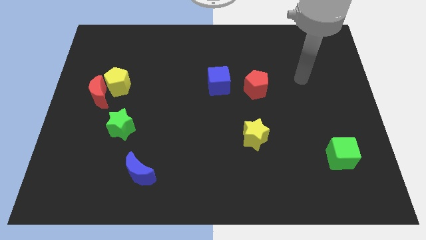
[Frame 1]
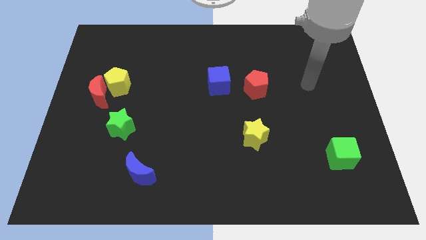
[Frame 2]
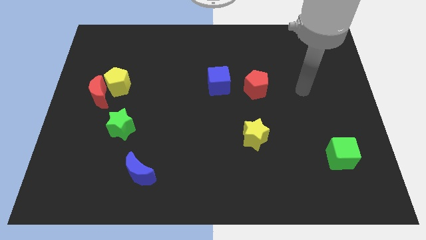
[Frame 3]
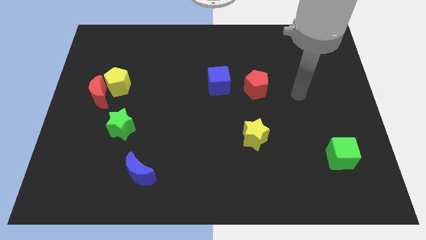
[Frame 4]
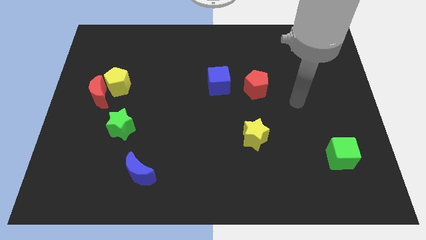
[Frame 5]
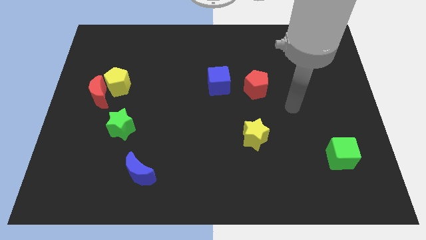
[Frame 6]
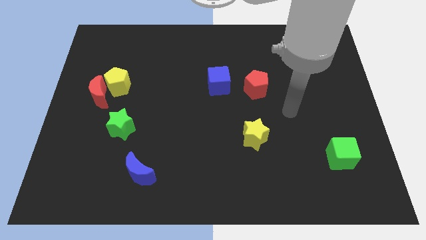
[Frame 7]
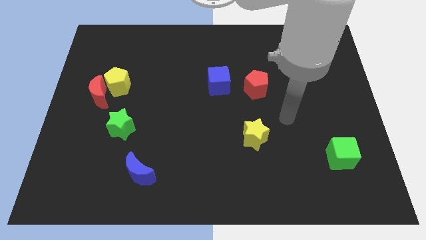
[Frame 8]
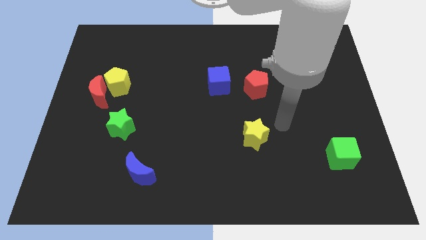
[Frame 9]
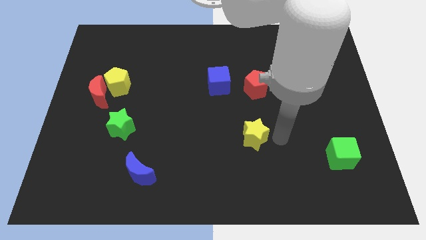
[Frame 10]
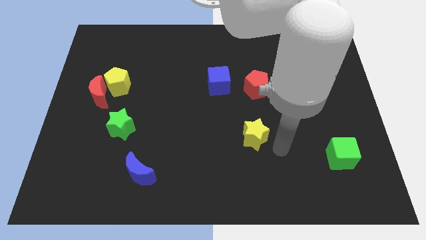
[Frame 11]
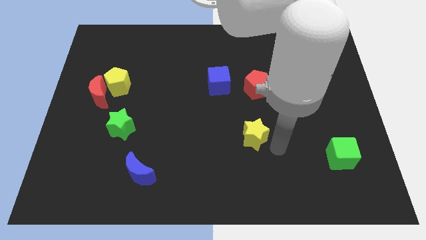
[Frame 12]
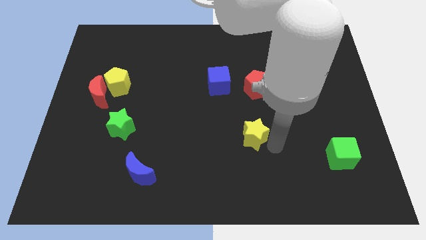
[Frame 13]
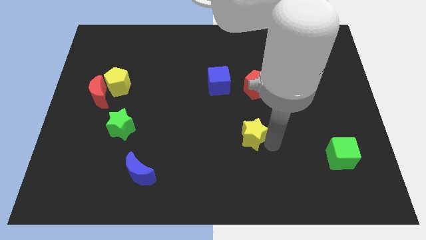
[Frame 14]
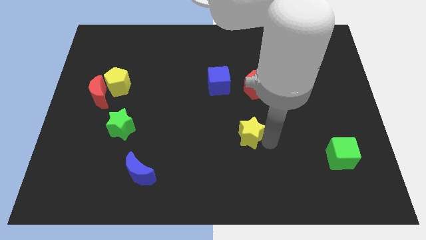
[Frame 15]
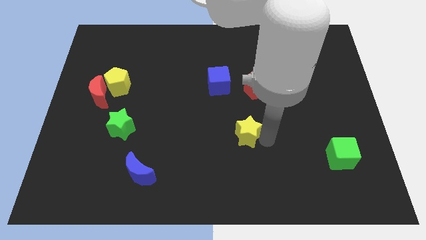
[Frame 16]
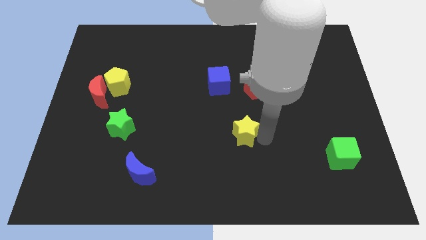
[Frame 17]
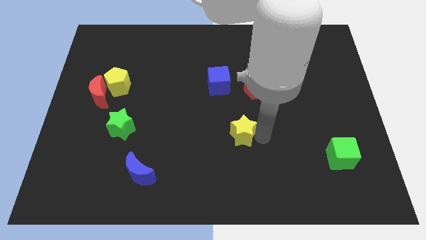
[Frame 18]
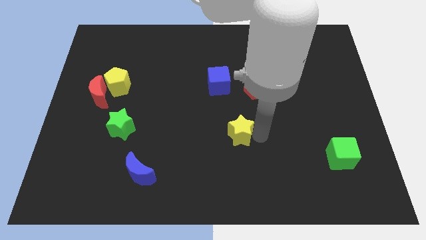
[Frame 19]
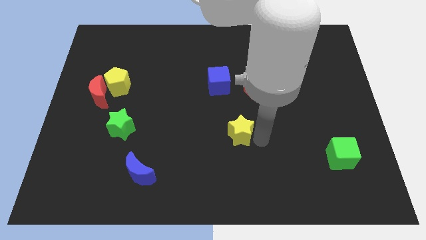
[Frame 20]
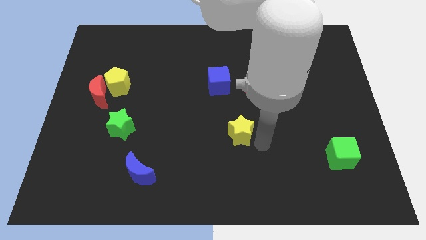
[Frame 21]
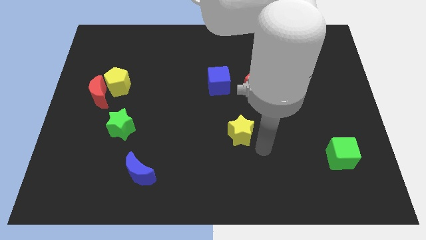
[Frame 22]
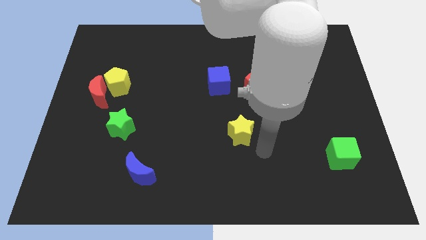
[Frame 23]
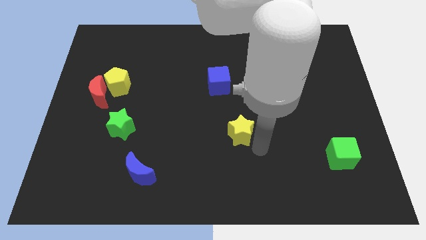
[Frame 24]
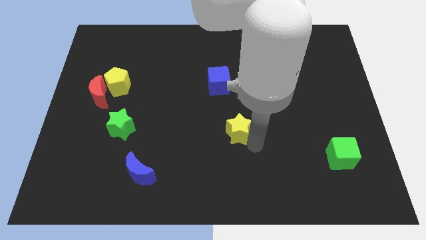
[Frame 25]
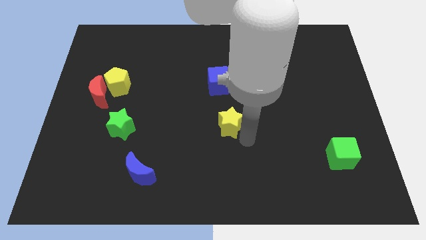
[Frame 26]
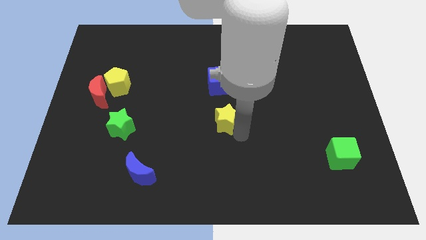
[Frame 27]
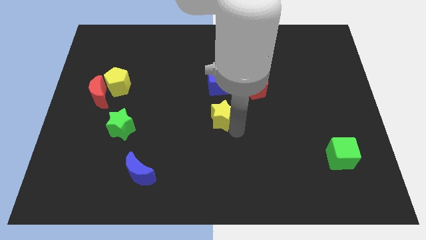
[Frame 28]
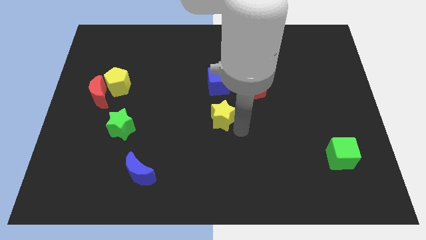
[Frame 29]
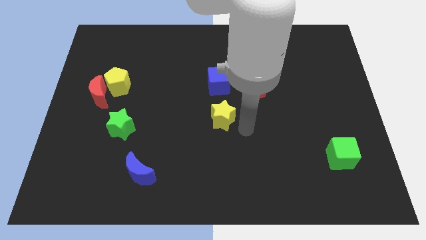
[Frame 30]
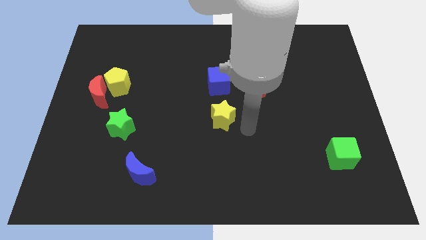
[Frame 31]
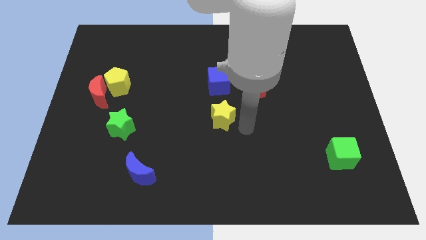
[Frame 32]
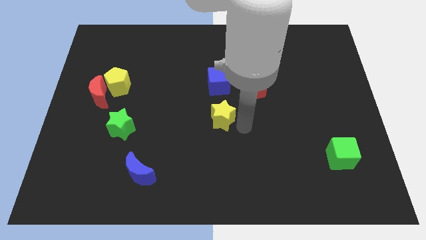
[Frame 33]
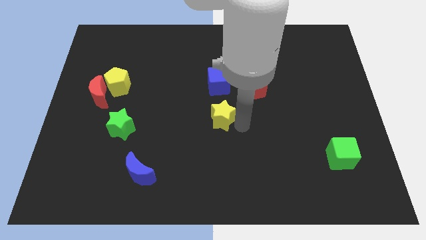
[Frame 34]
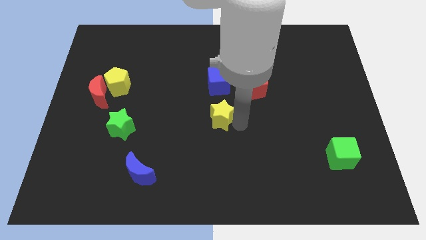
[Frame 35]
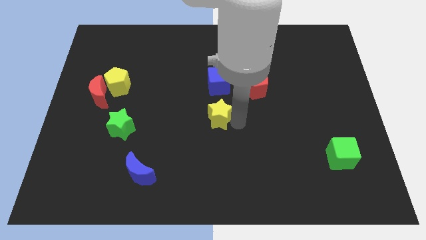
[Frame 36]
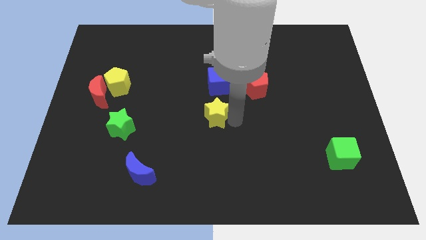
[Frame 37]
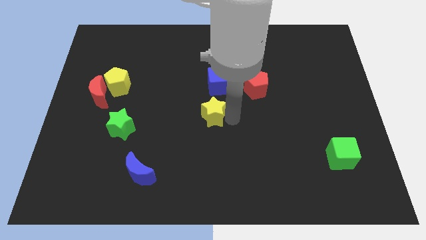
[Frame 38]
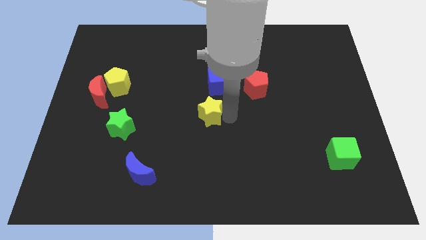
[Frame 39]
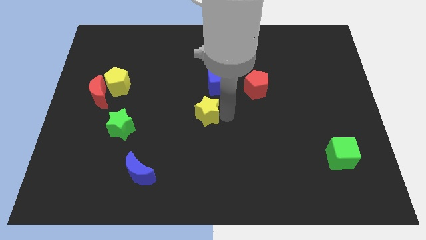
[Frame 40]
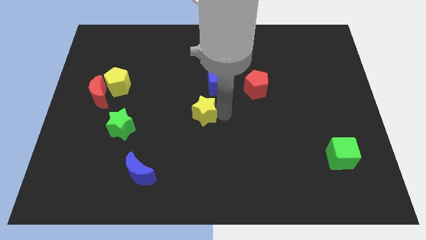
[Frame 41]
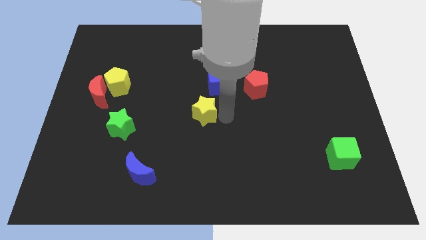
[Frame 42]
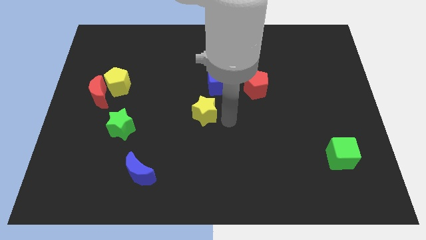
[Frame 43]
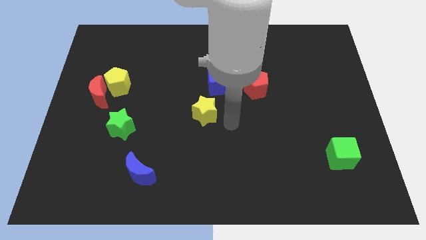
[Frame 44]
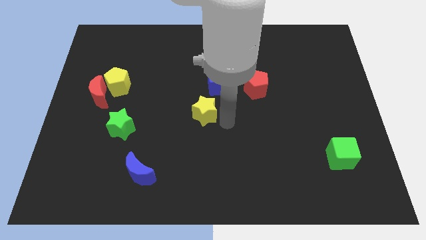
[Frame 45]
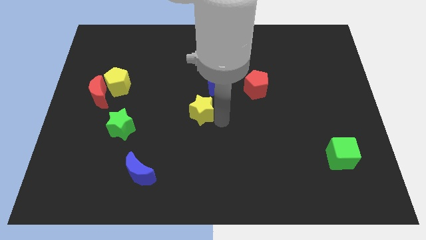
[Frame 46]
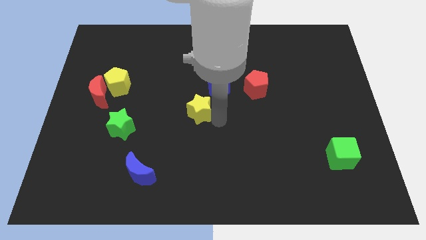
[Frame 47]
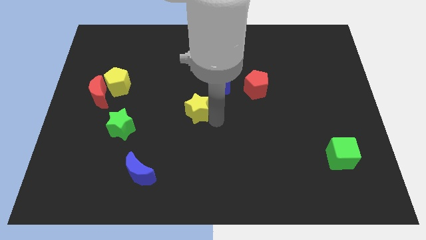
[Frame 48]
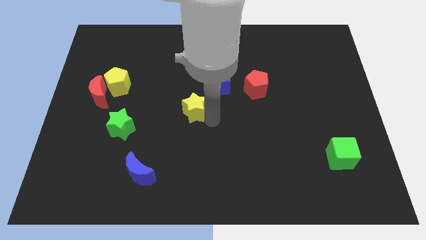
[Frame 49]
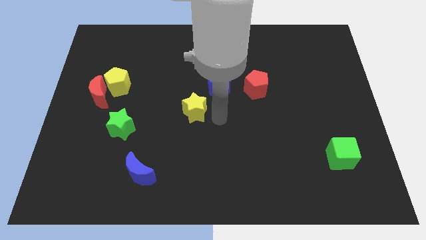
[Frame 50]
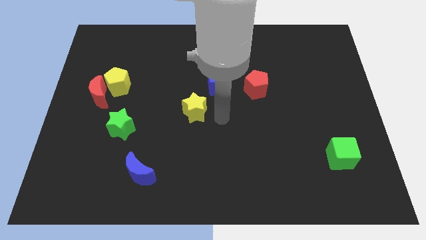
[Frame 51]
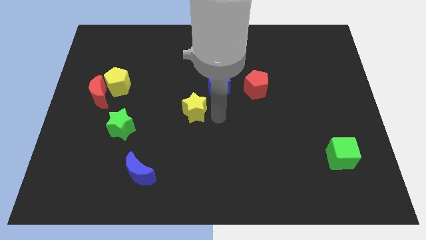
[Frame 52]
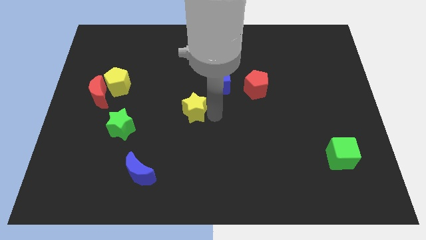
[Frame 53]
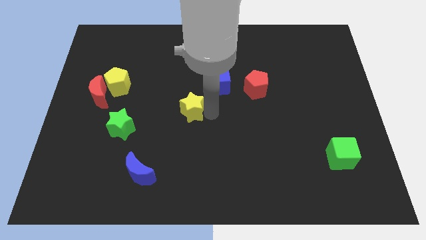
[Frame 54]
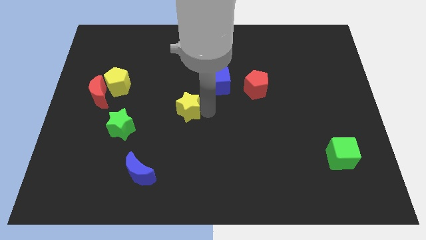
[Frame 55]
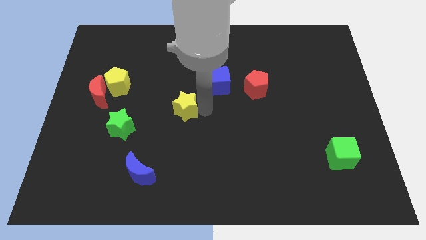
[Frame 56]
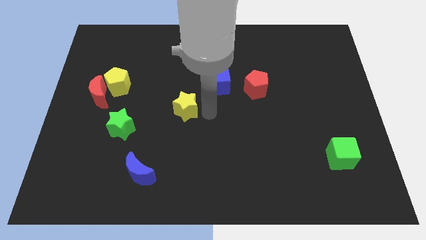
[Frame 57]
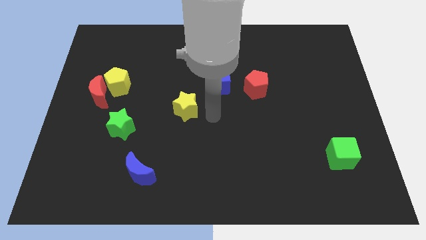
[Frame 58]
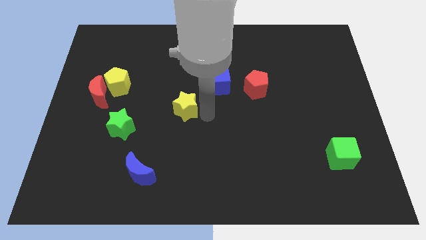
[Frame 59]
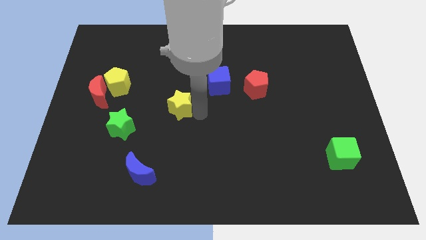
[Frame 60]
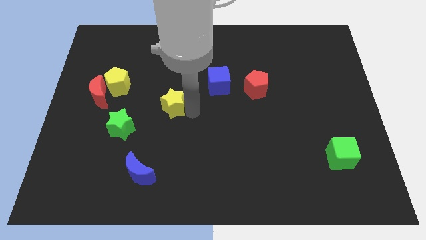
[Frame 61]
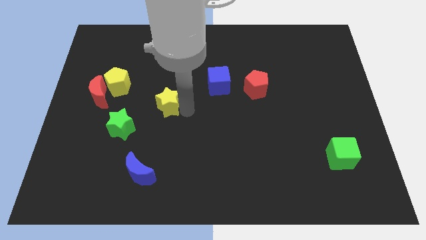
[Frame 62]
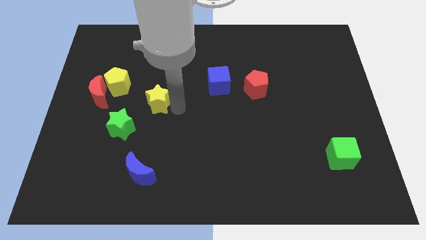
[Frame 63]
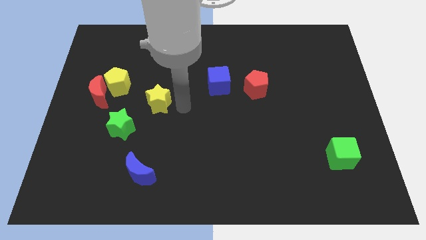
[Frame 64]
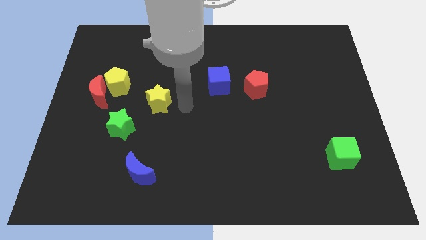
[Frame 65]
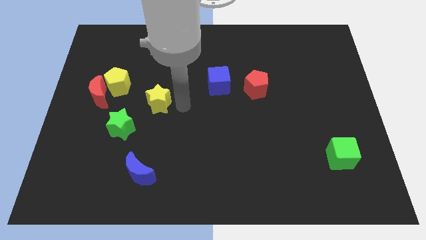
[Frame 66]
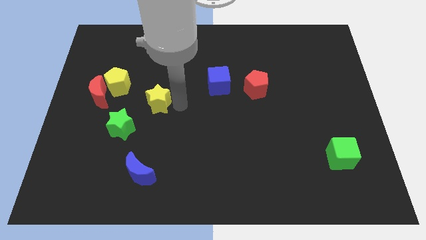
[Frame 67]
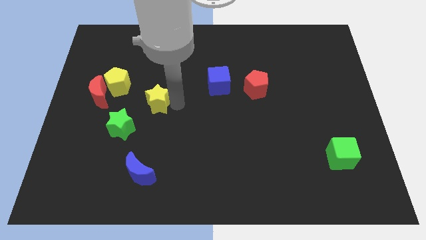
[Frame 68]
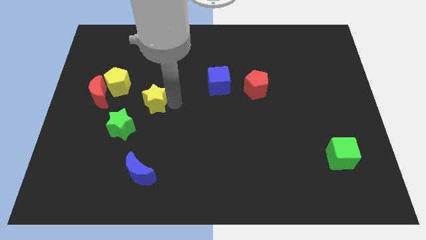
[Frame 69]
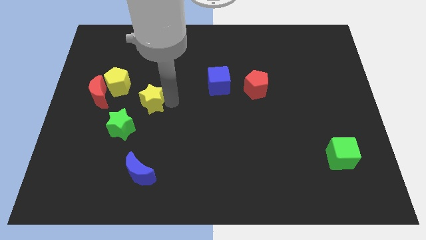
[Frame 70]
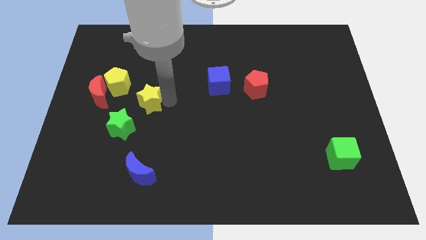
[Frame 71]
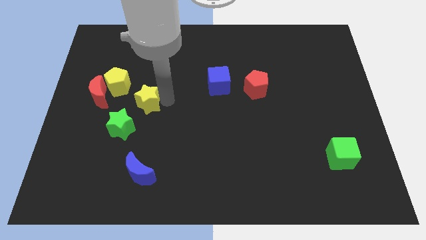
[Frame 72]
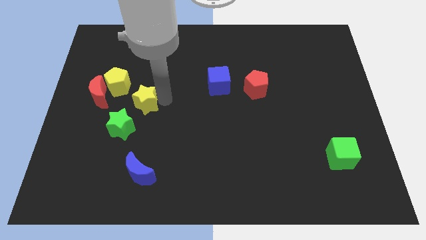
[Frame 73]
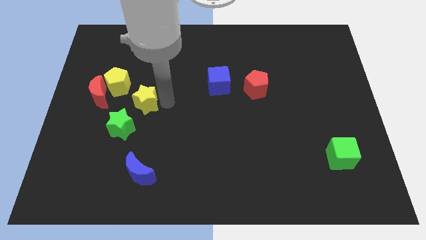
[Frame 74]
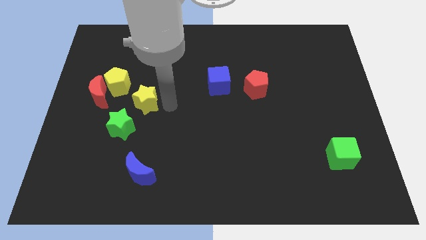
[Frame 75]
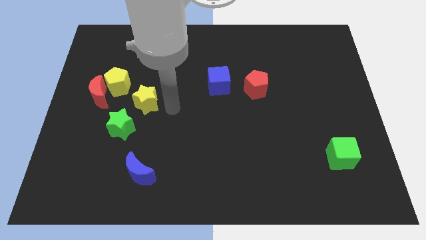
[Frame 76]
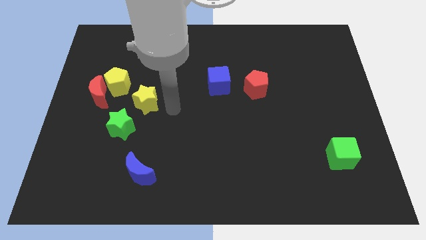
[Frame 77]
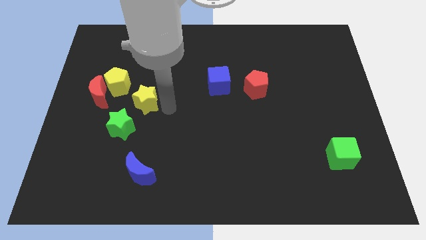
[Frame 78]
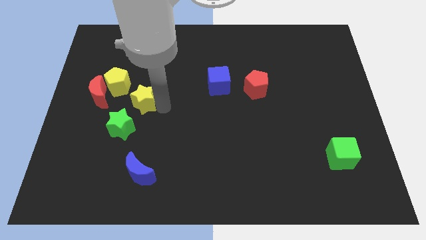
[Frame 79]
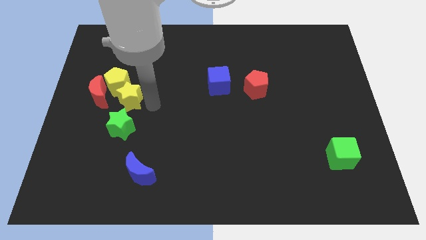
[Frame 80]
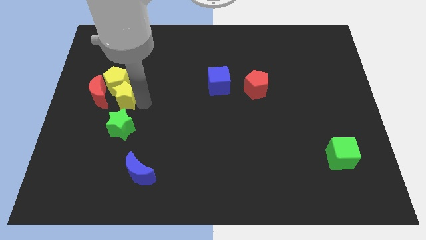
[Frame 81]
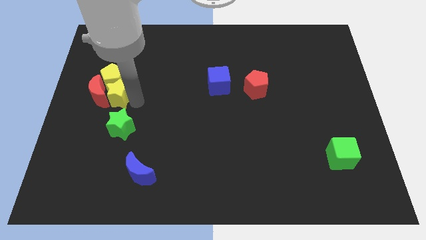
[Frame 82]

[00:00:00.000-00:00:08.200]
push the yellow star close to the red moon
